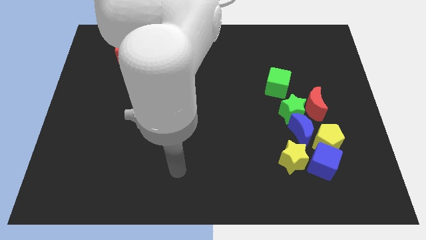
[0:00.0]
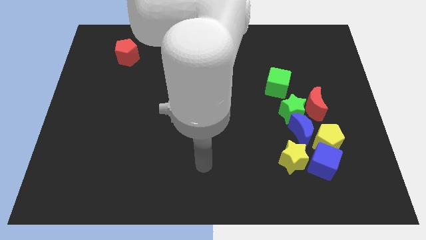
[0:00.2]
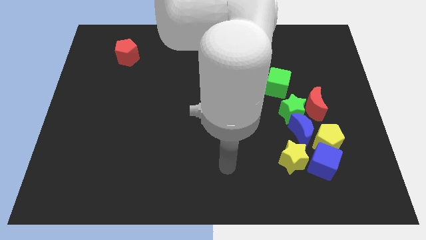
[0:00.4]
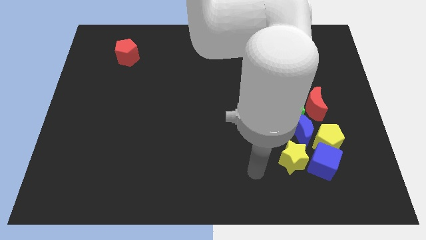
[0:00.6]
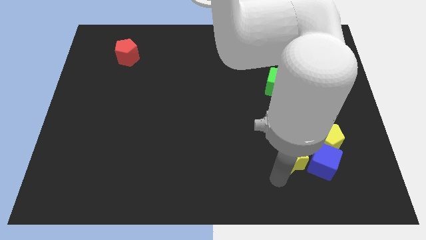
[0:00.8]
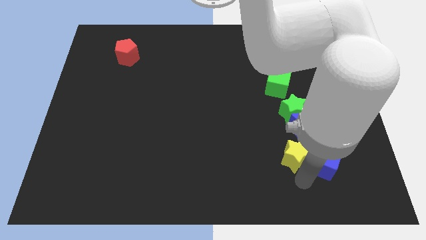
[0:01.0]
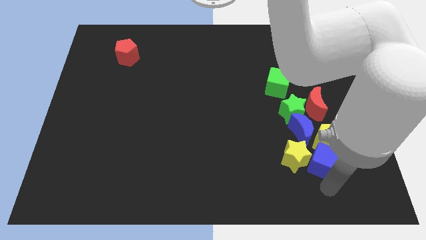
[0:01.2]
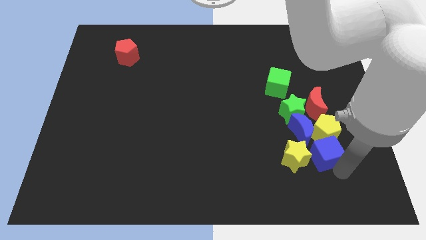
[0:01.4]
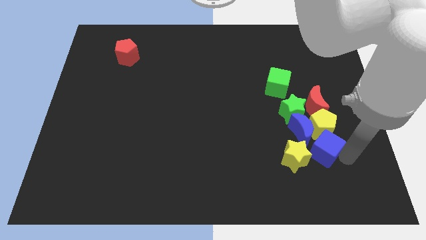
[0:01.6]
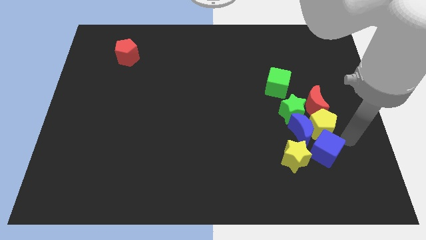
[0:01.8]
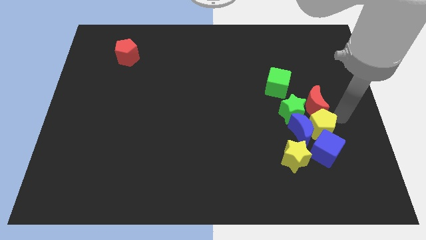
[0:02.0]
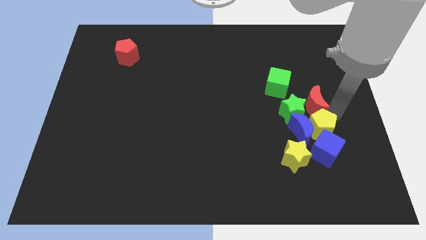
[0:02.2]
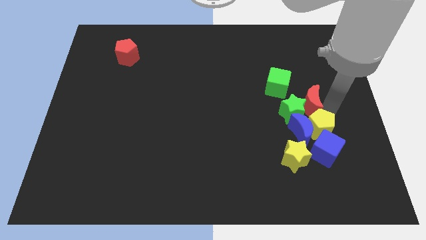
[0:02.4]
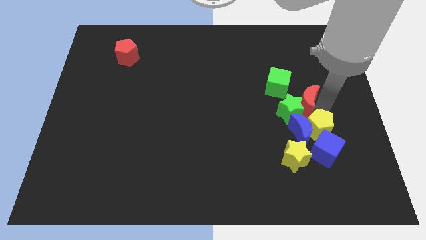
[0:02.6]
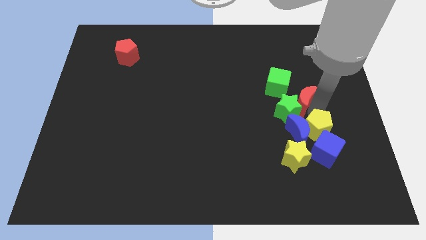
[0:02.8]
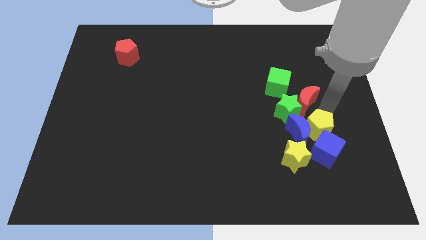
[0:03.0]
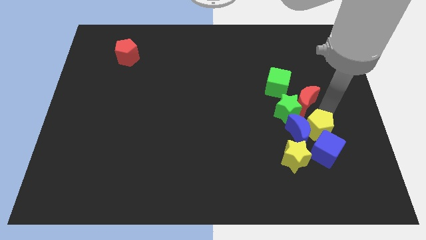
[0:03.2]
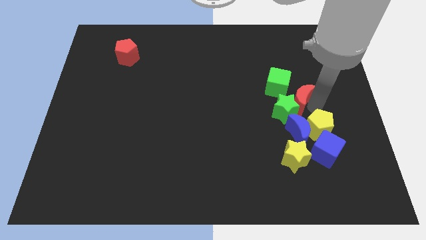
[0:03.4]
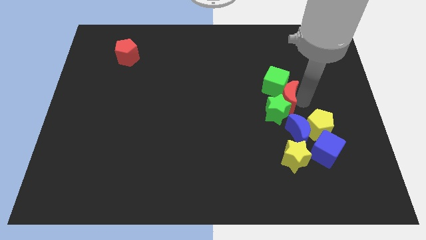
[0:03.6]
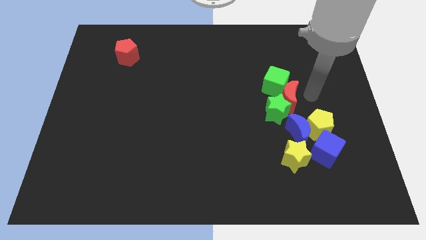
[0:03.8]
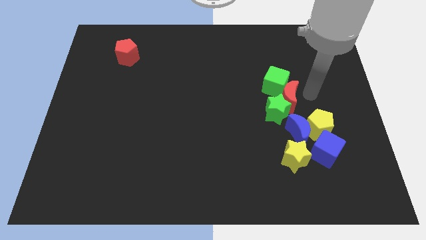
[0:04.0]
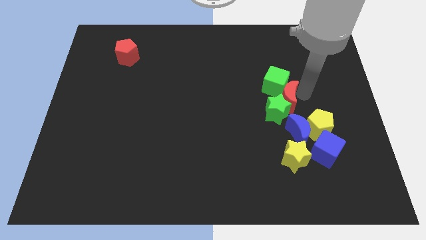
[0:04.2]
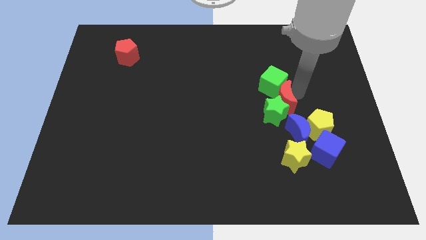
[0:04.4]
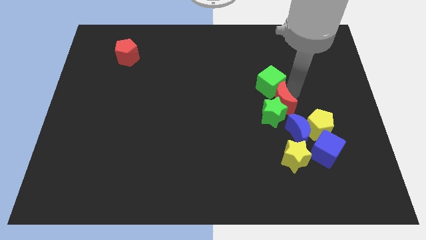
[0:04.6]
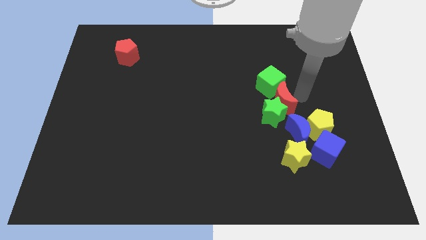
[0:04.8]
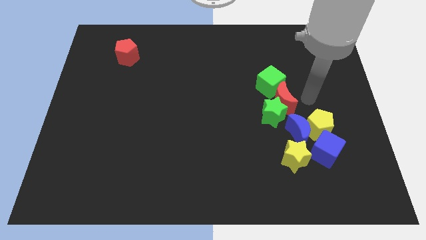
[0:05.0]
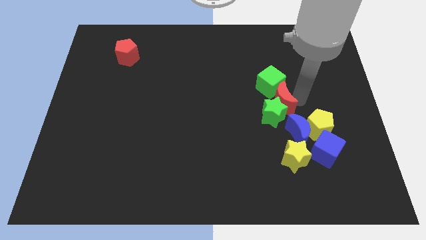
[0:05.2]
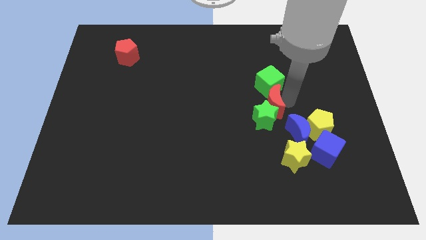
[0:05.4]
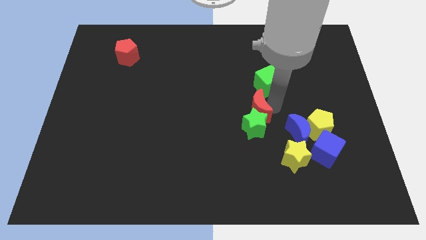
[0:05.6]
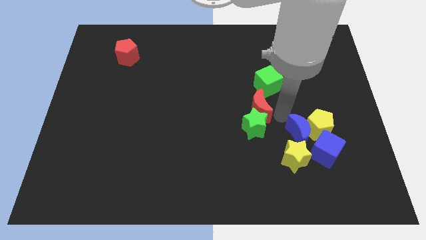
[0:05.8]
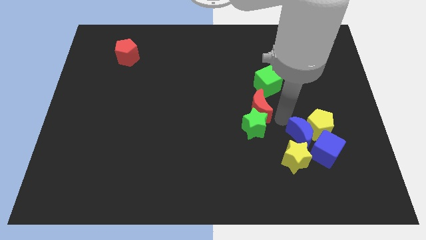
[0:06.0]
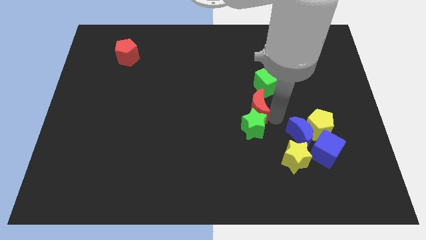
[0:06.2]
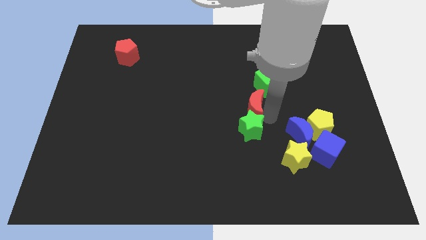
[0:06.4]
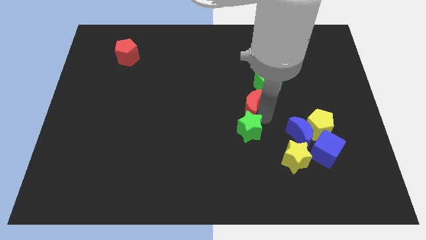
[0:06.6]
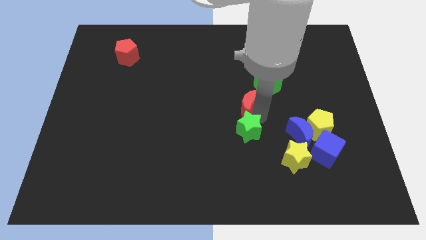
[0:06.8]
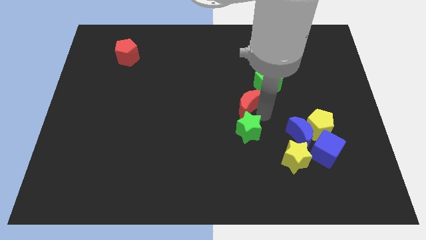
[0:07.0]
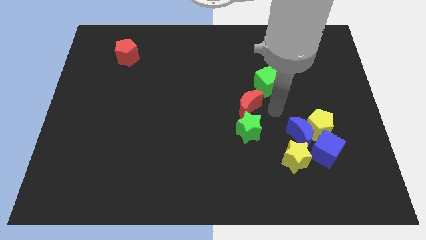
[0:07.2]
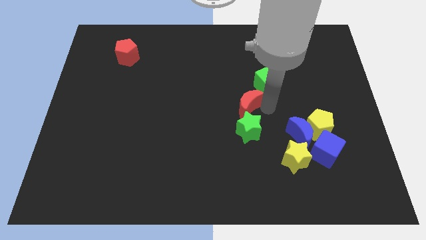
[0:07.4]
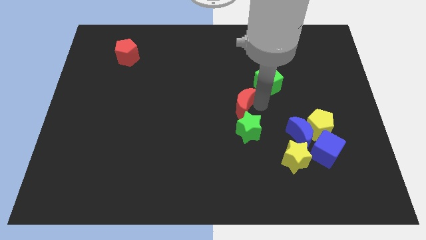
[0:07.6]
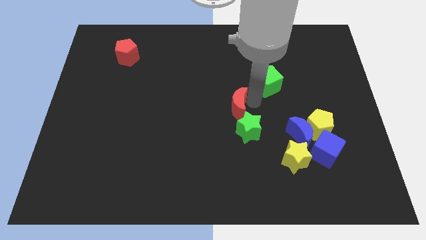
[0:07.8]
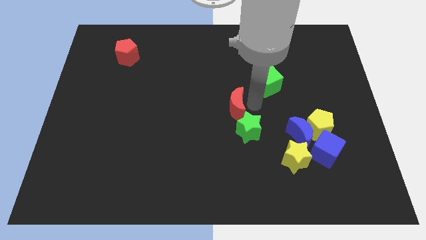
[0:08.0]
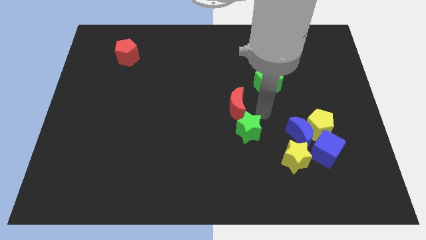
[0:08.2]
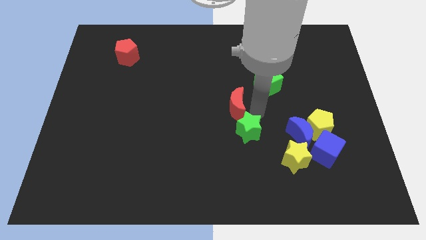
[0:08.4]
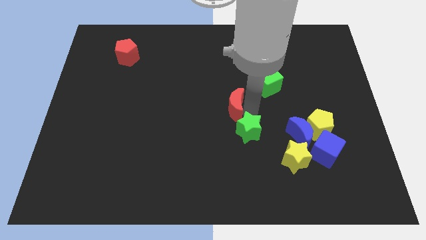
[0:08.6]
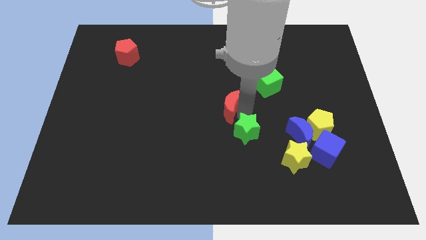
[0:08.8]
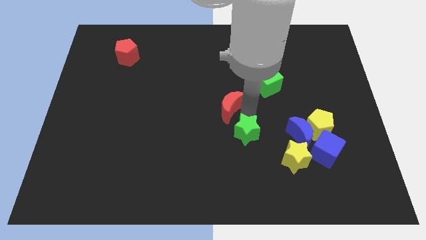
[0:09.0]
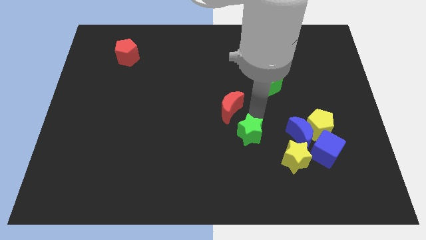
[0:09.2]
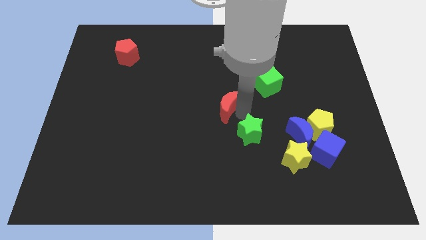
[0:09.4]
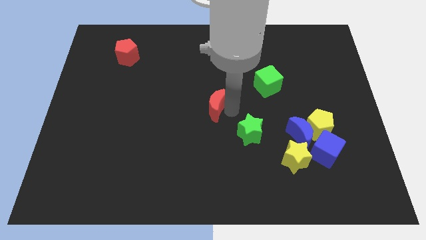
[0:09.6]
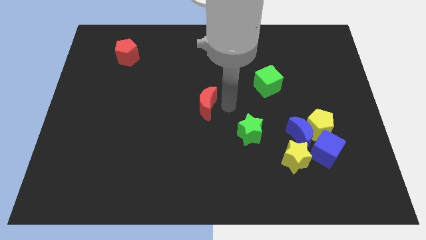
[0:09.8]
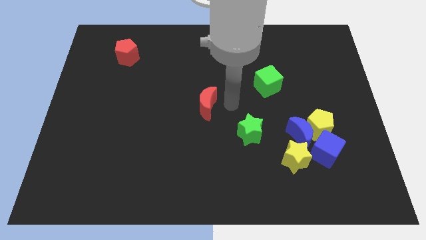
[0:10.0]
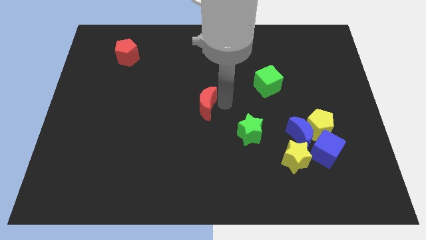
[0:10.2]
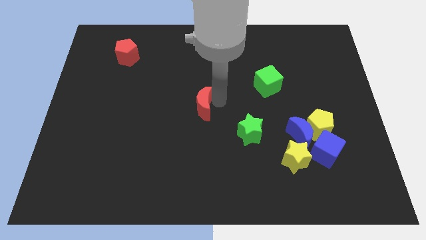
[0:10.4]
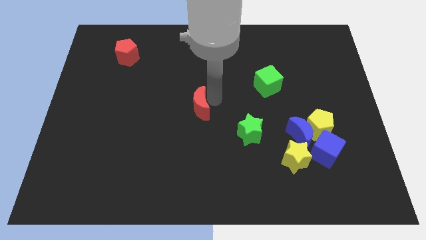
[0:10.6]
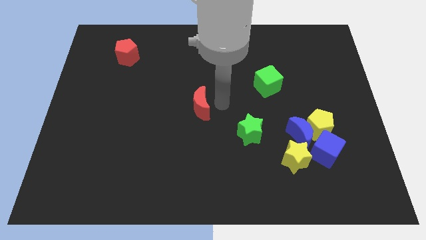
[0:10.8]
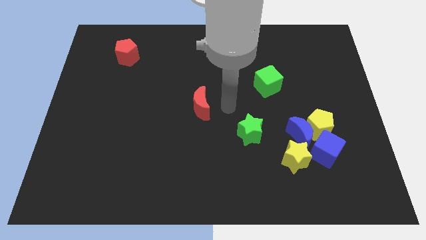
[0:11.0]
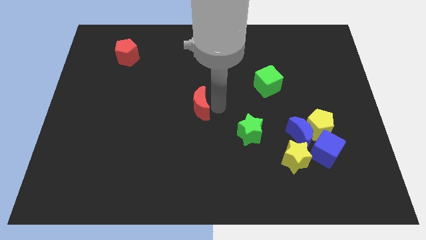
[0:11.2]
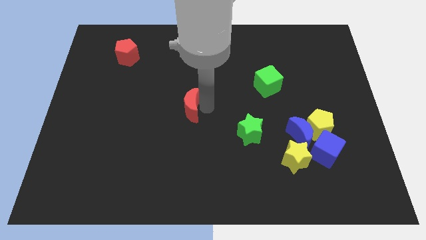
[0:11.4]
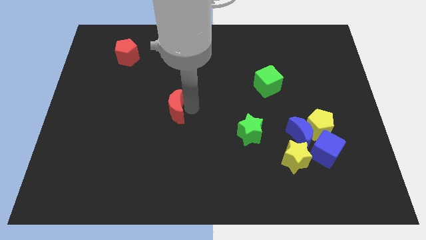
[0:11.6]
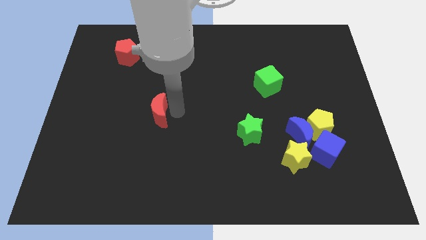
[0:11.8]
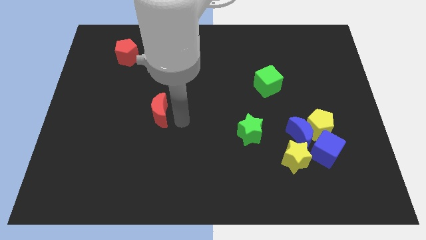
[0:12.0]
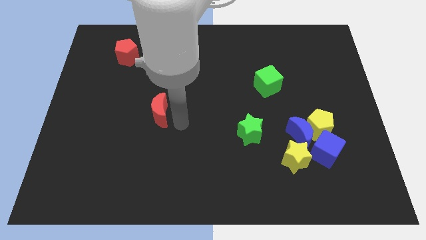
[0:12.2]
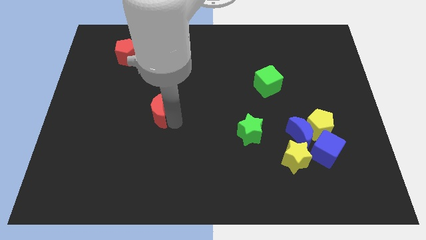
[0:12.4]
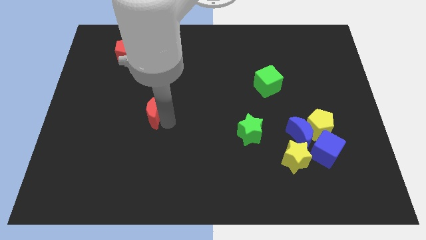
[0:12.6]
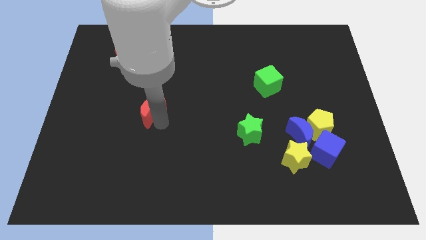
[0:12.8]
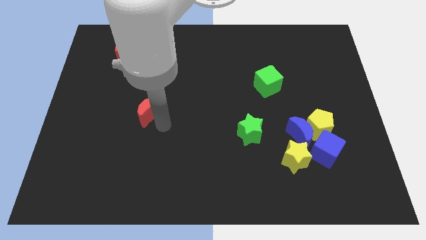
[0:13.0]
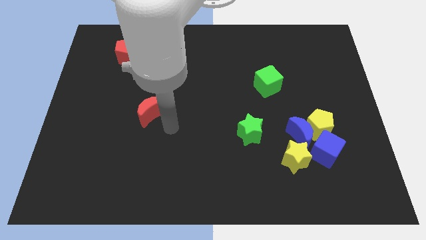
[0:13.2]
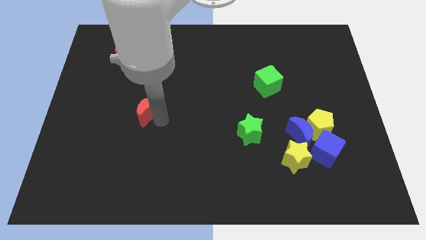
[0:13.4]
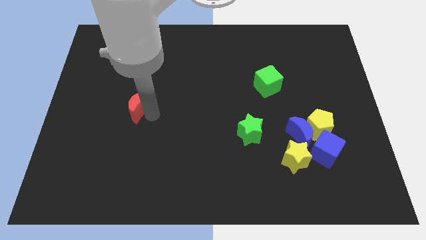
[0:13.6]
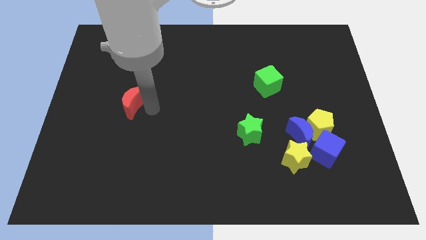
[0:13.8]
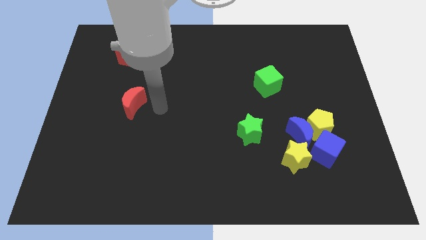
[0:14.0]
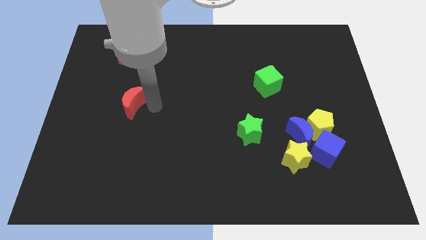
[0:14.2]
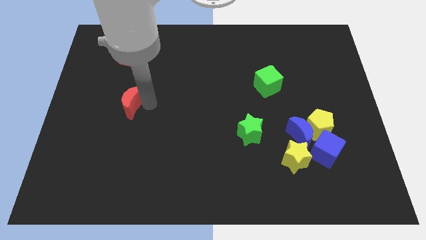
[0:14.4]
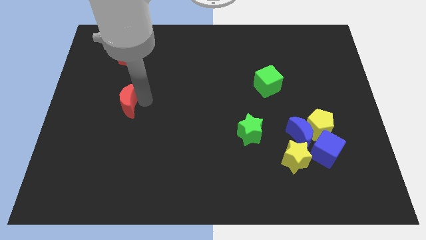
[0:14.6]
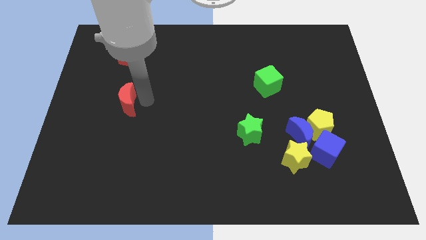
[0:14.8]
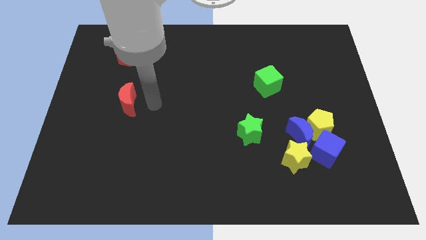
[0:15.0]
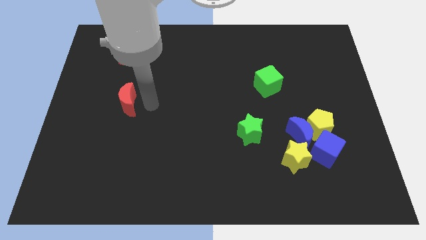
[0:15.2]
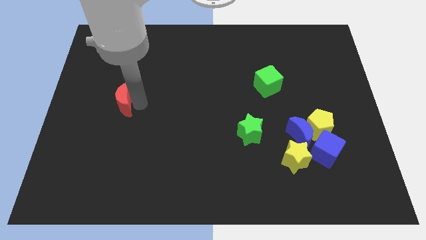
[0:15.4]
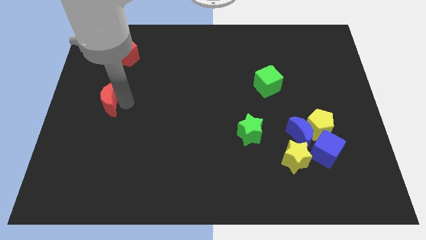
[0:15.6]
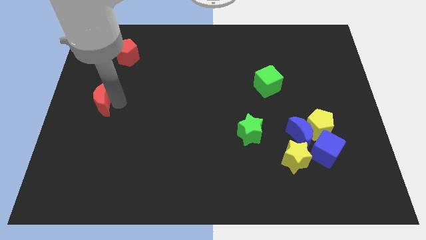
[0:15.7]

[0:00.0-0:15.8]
put the red moon to the center left
